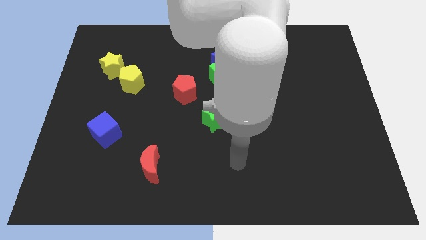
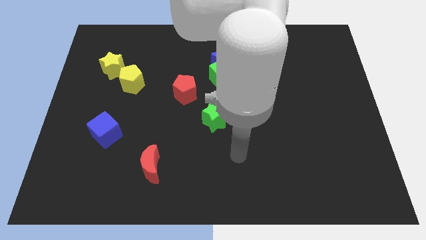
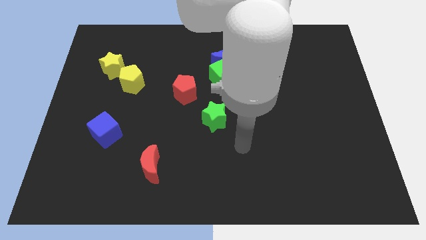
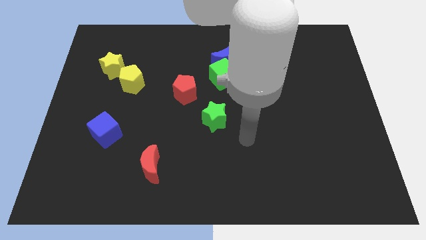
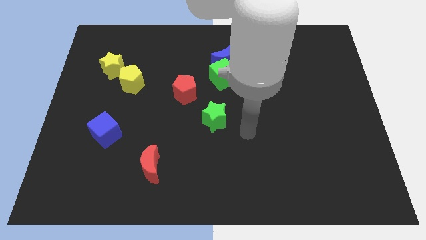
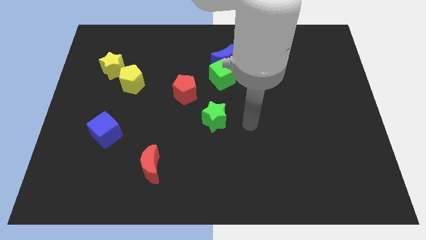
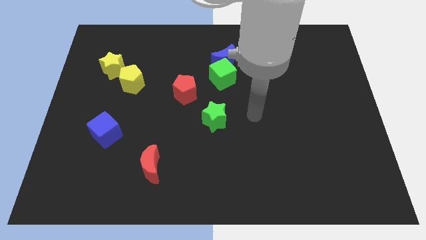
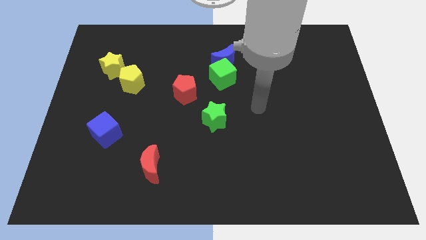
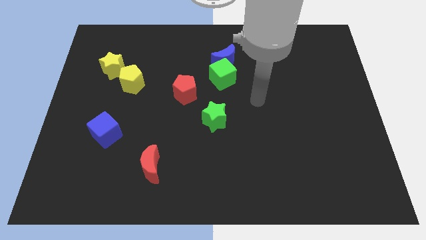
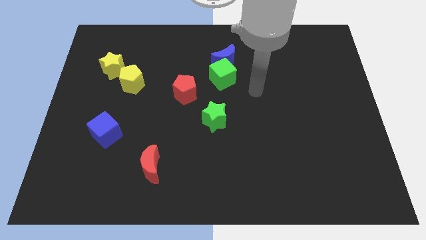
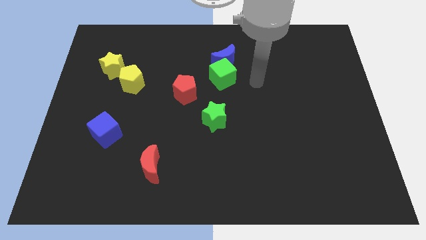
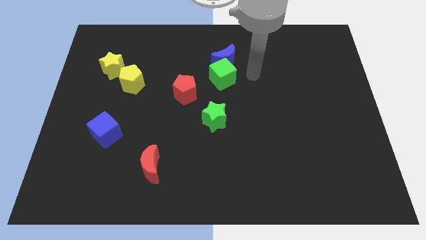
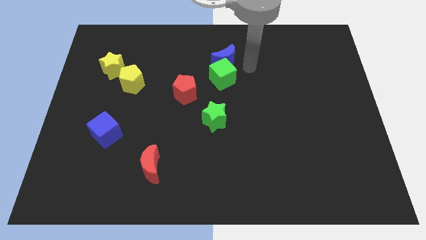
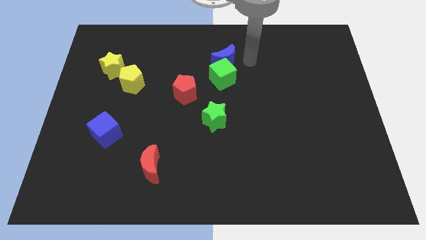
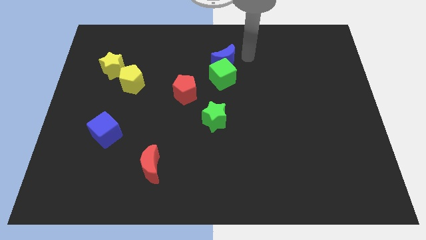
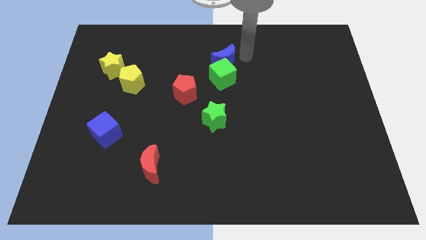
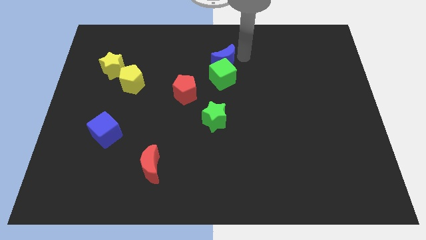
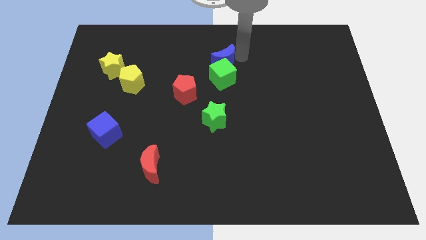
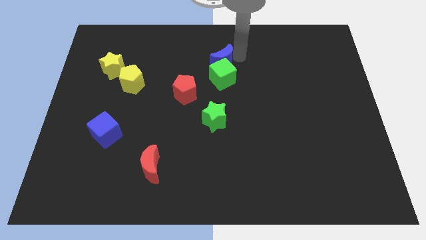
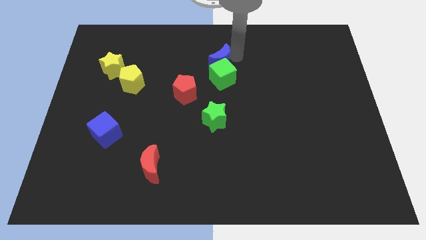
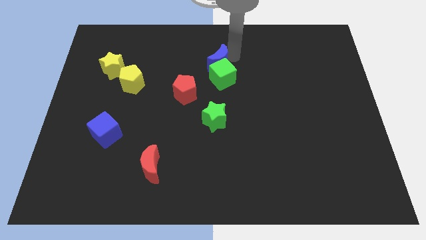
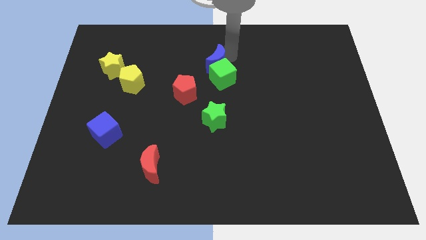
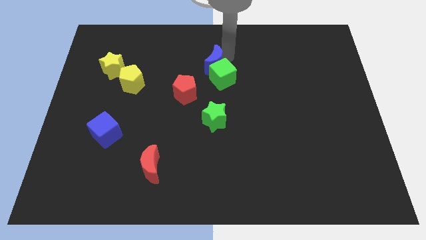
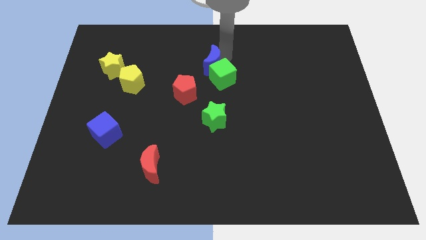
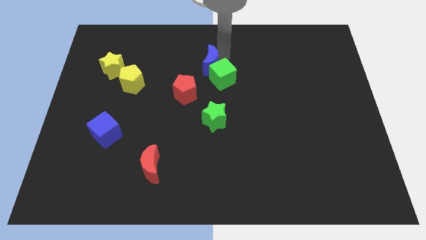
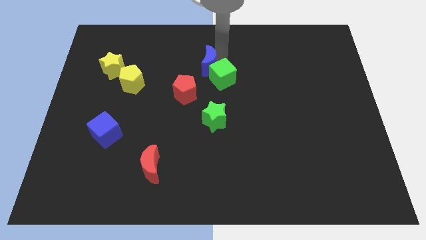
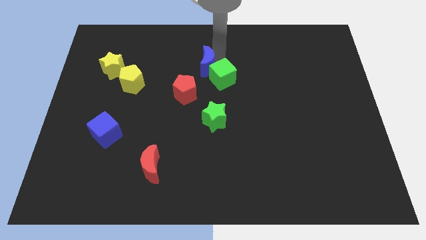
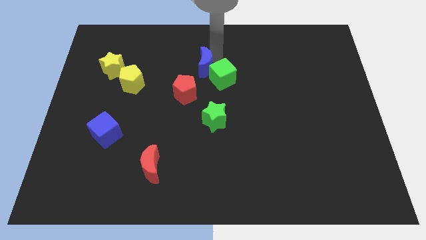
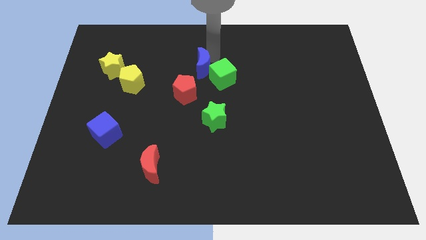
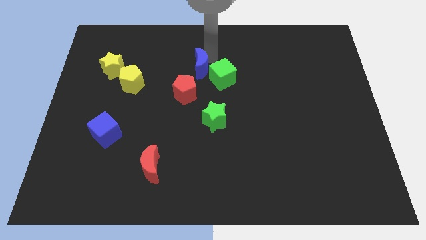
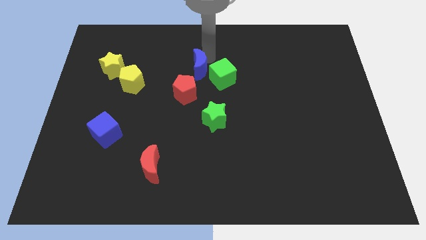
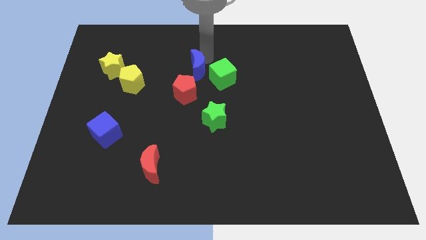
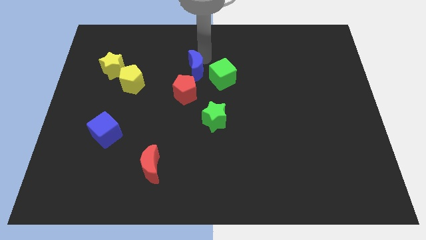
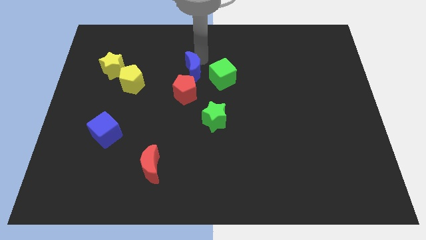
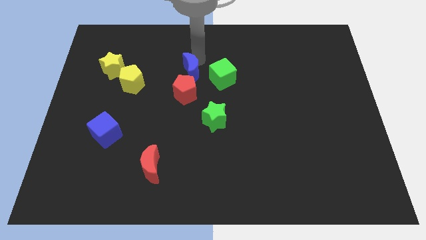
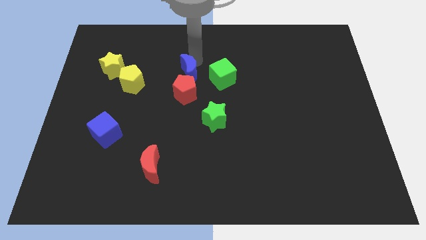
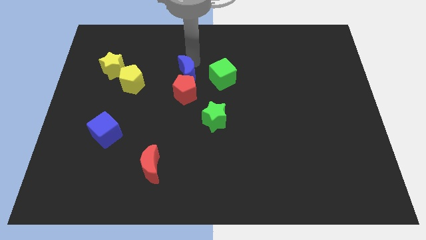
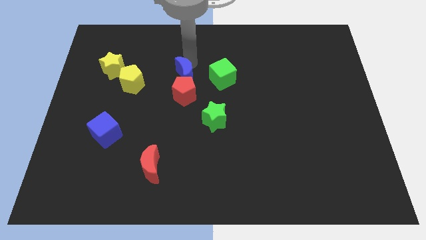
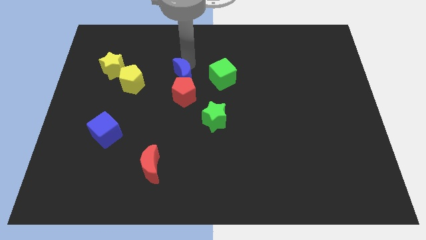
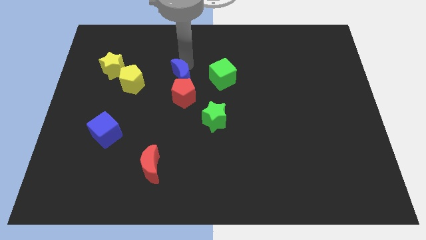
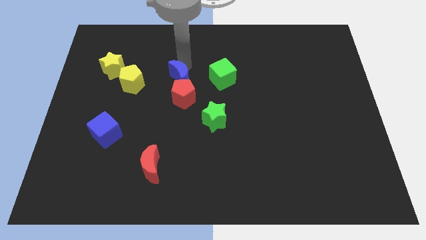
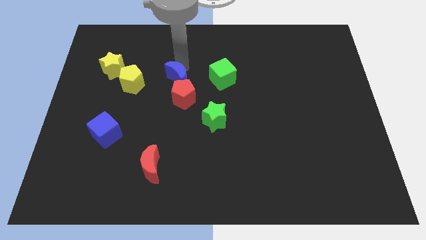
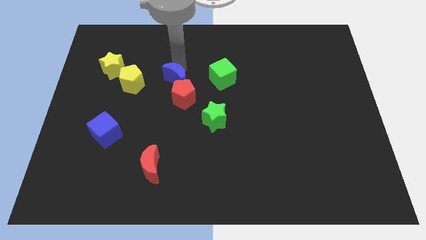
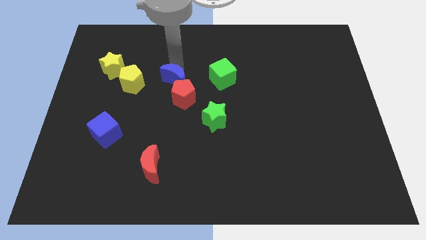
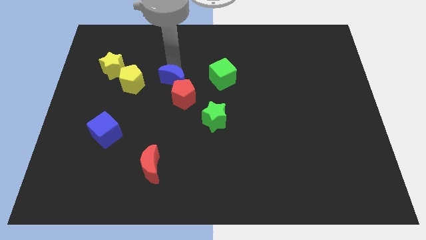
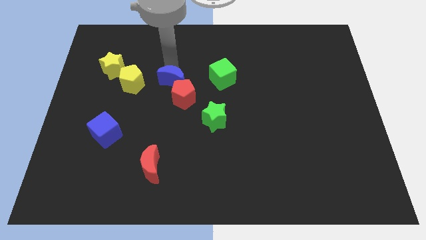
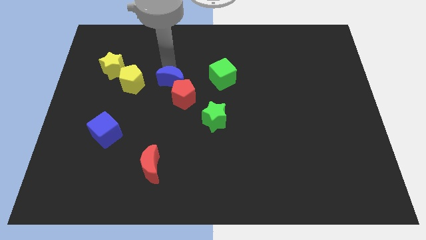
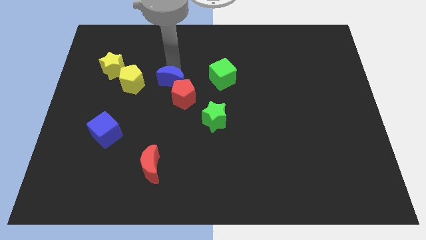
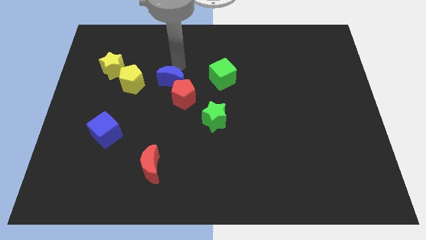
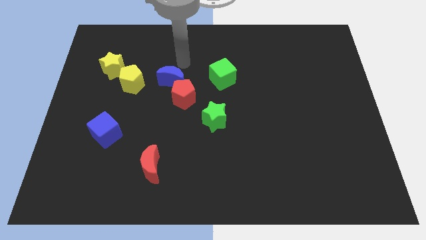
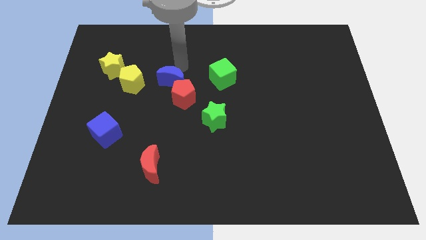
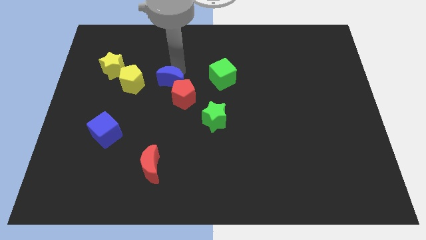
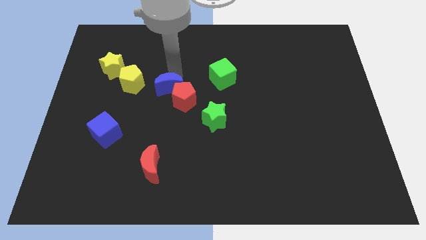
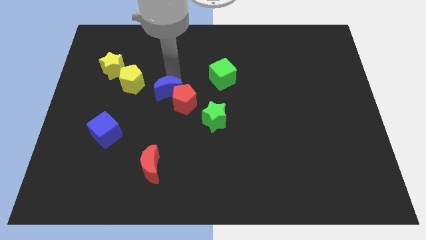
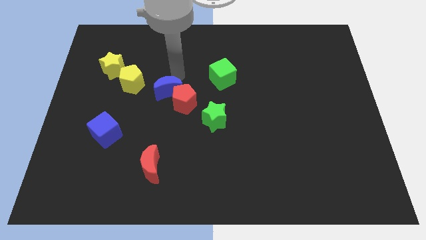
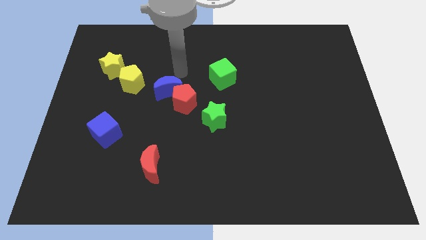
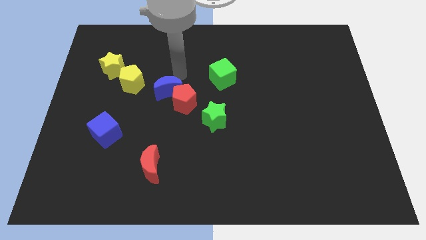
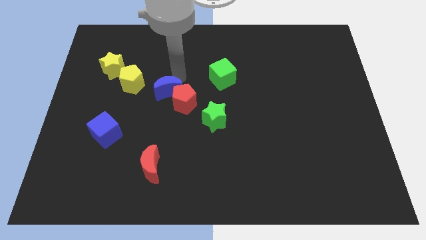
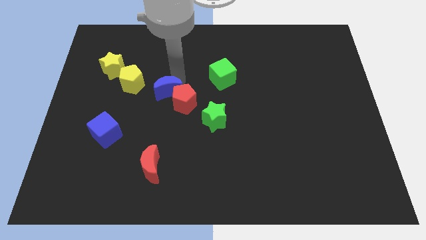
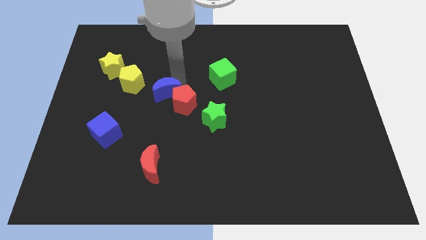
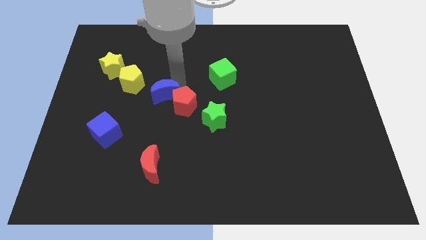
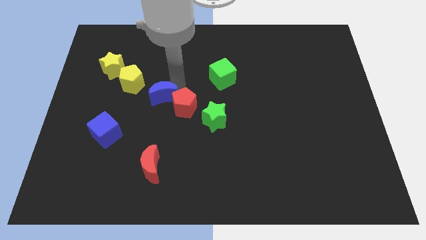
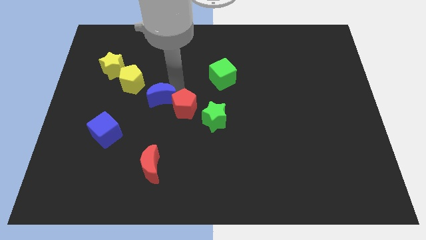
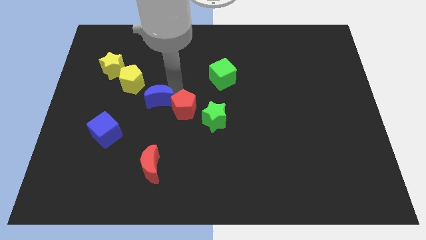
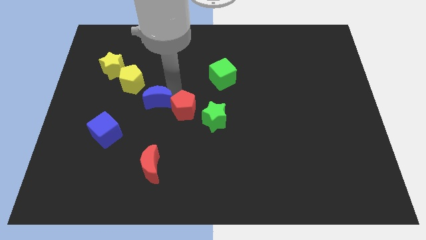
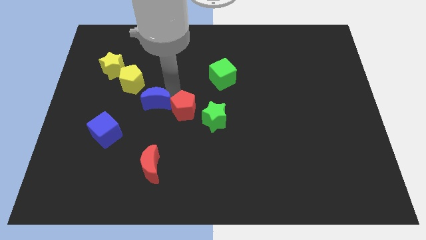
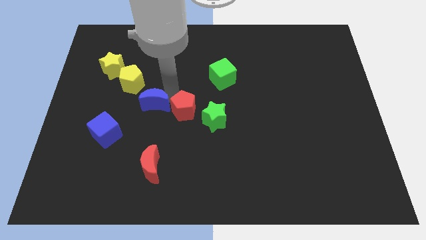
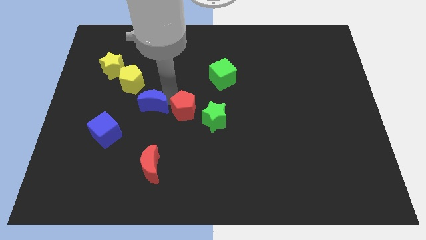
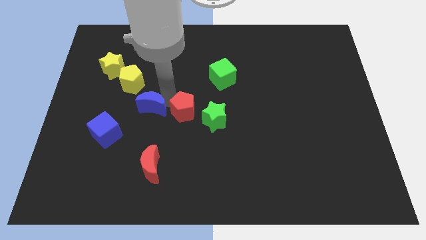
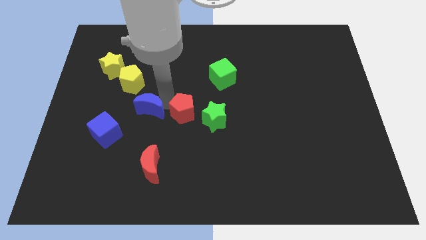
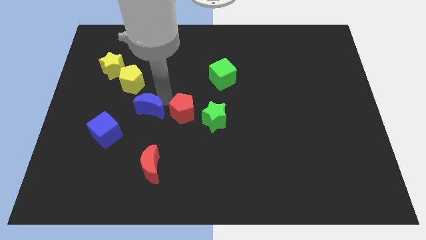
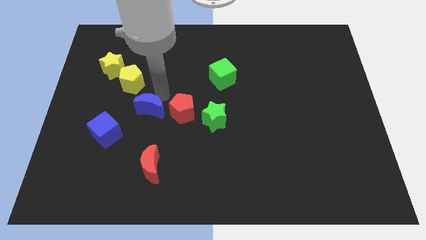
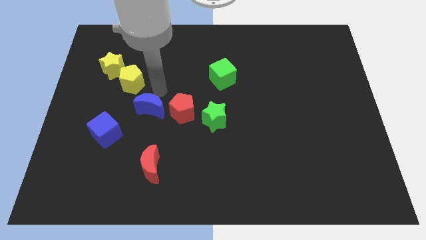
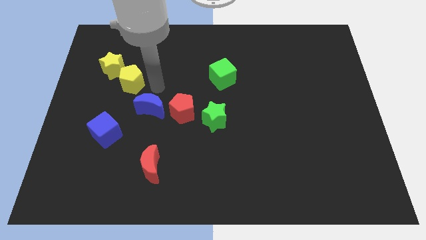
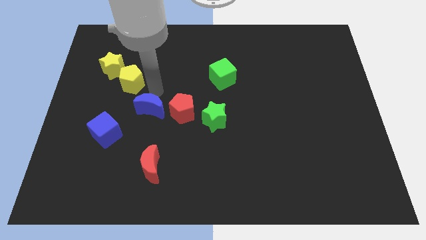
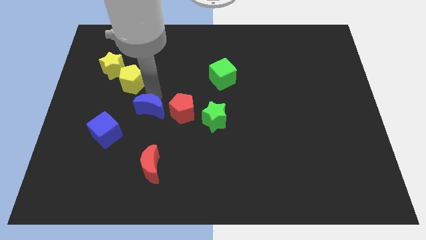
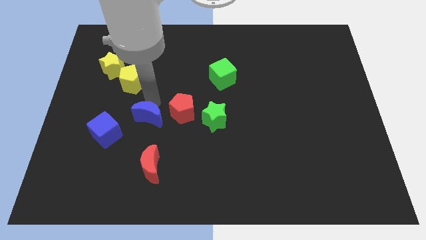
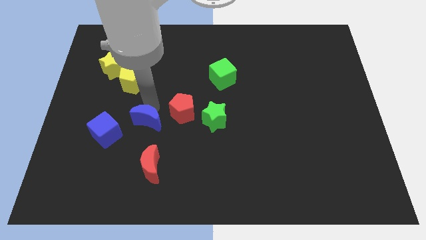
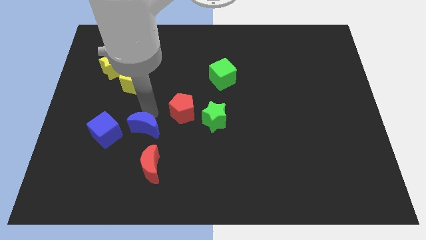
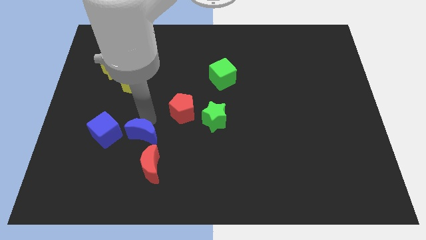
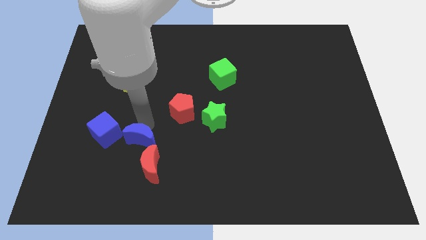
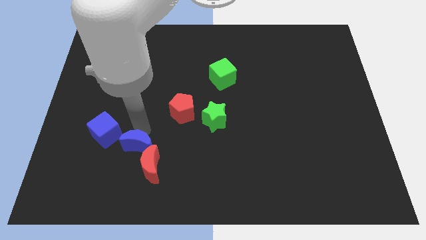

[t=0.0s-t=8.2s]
slide the blue moon towards the red moon
